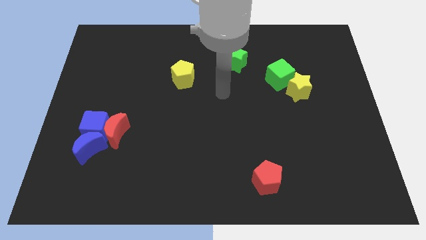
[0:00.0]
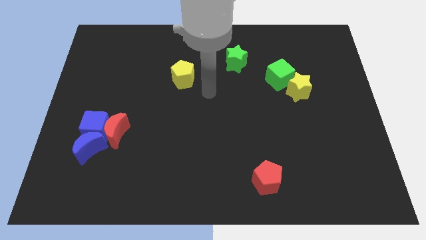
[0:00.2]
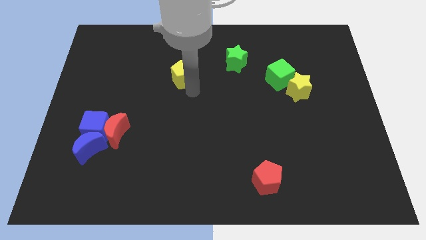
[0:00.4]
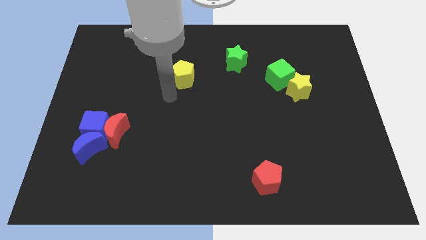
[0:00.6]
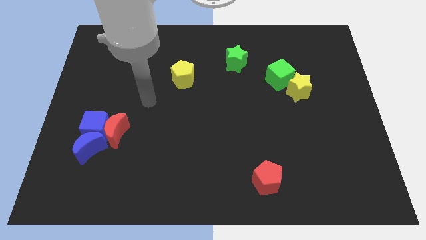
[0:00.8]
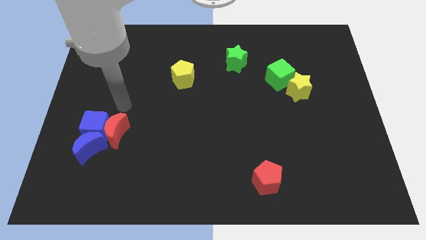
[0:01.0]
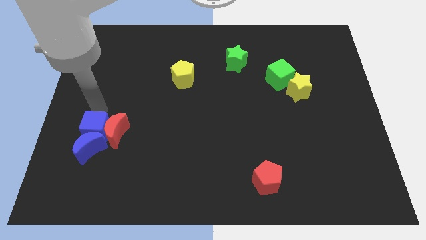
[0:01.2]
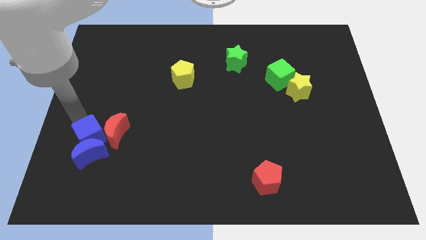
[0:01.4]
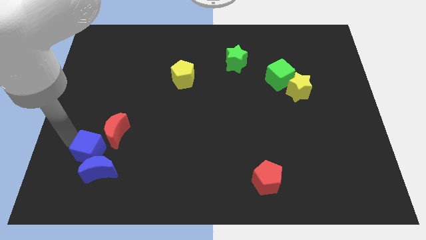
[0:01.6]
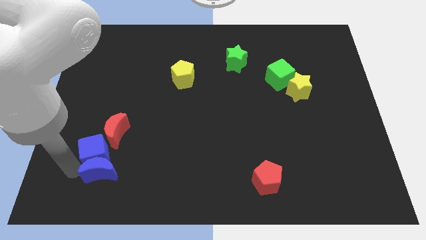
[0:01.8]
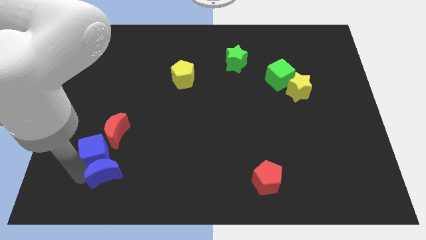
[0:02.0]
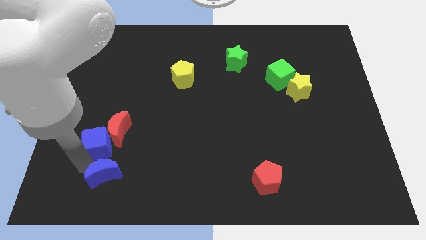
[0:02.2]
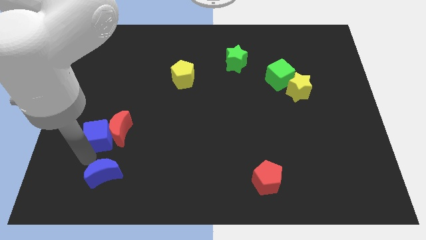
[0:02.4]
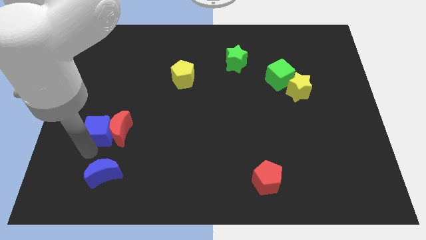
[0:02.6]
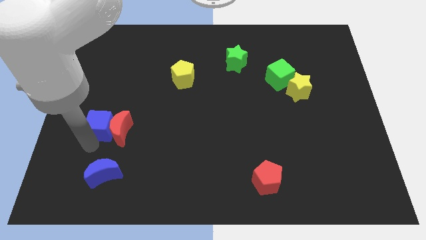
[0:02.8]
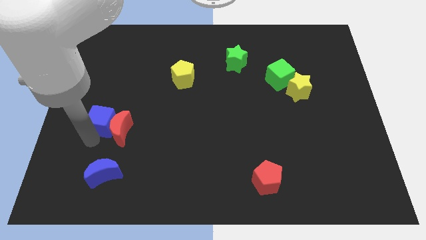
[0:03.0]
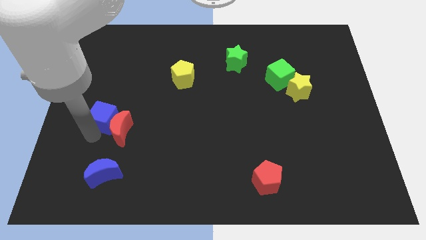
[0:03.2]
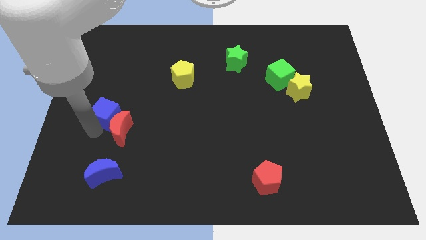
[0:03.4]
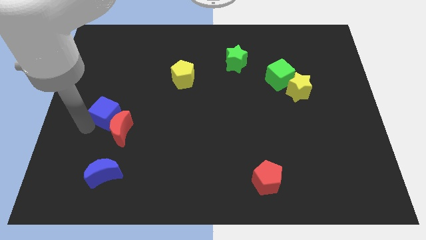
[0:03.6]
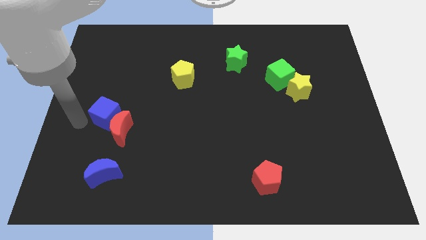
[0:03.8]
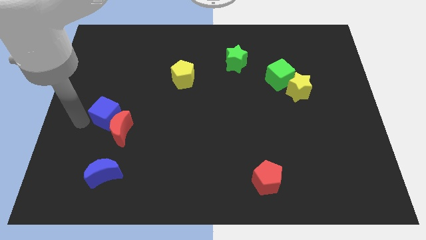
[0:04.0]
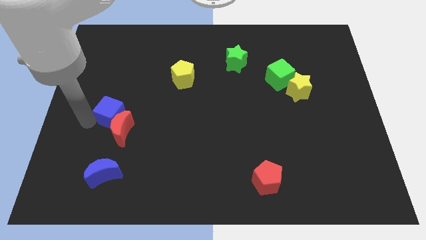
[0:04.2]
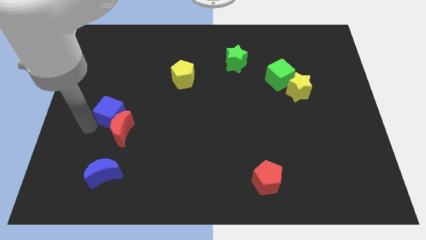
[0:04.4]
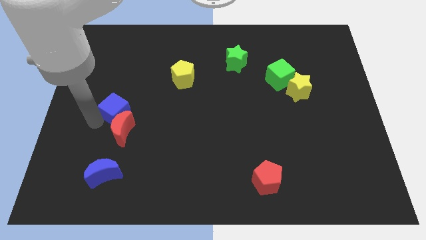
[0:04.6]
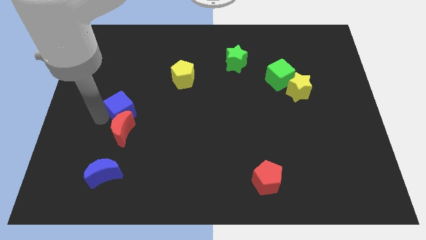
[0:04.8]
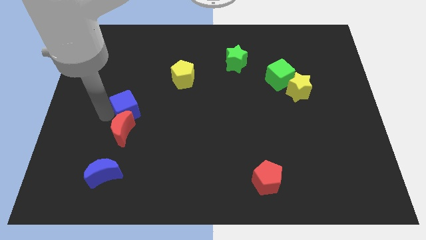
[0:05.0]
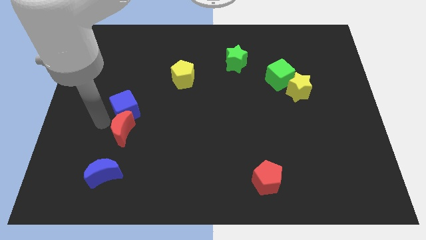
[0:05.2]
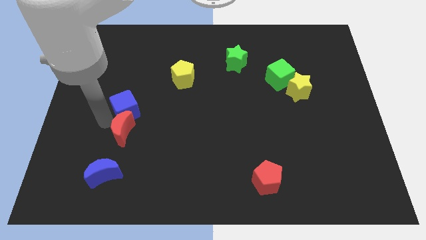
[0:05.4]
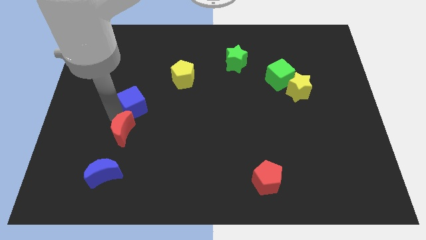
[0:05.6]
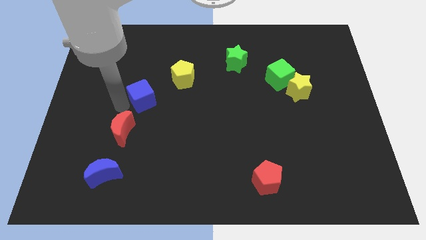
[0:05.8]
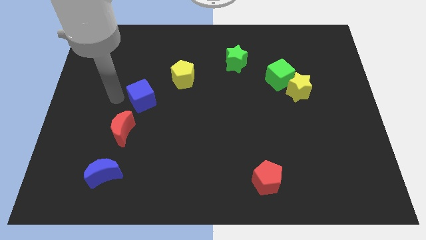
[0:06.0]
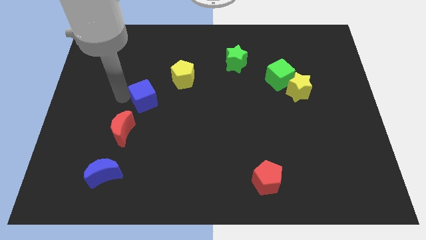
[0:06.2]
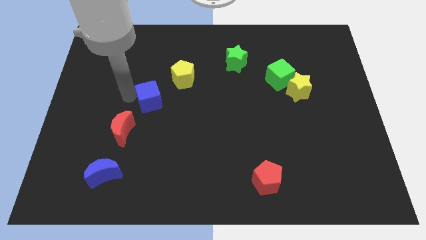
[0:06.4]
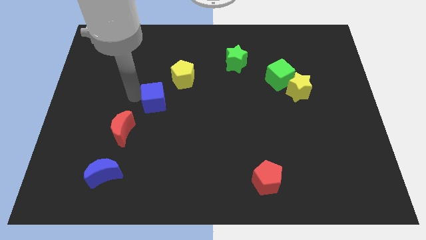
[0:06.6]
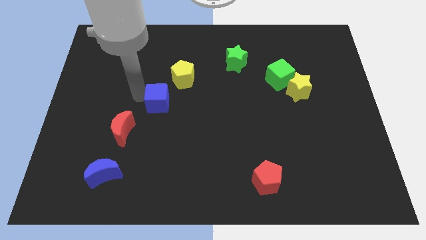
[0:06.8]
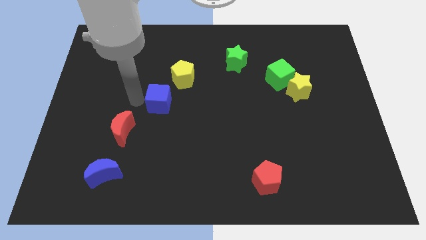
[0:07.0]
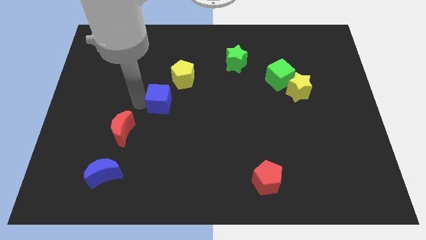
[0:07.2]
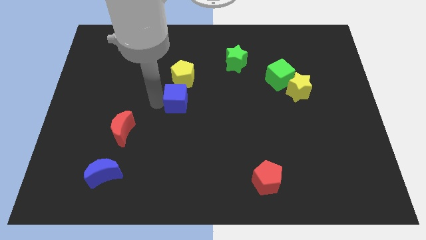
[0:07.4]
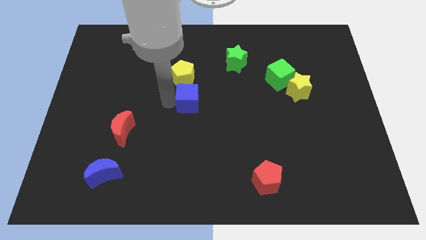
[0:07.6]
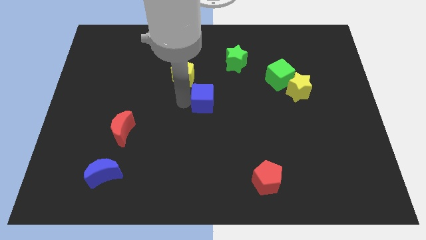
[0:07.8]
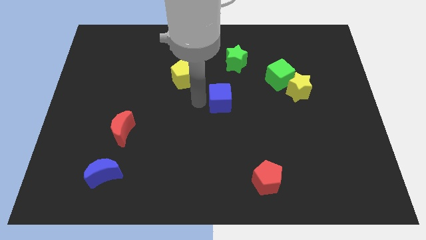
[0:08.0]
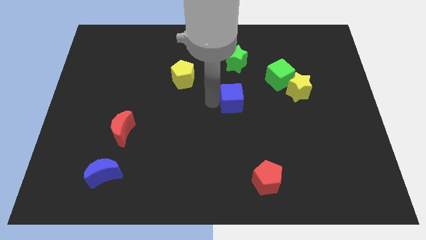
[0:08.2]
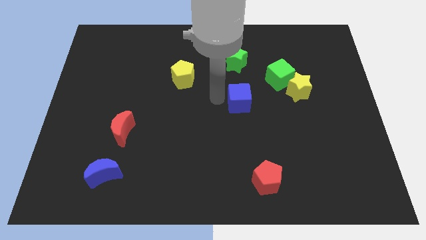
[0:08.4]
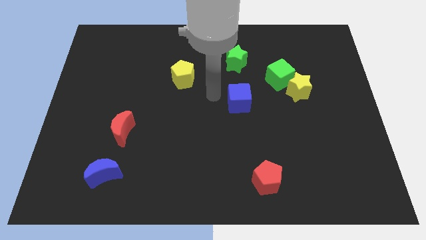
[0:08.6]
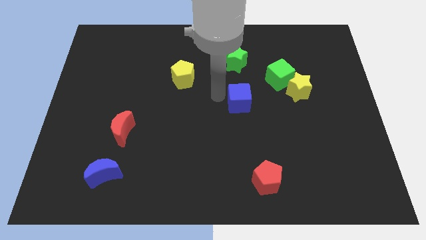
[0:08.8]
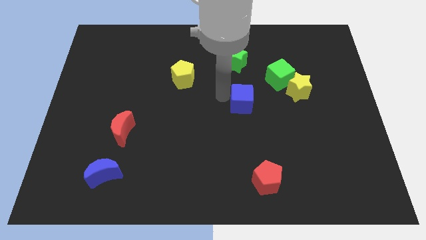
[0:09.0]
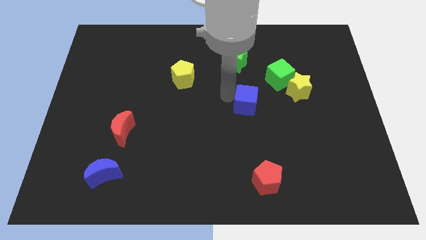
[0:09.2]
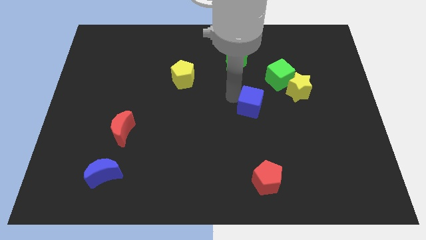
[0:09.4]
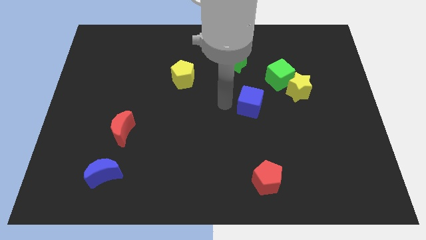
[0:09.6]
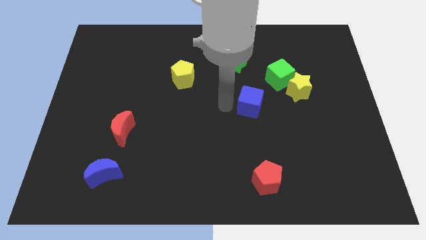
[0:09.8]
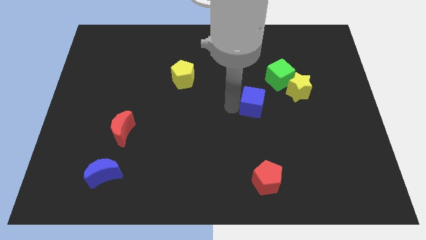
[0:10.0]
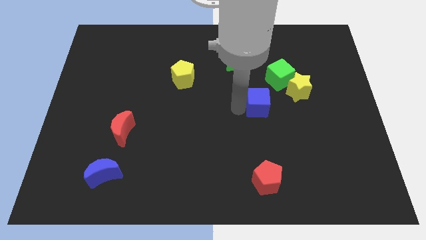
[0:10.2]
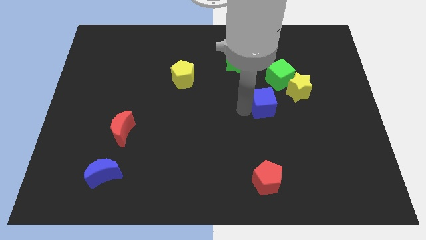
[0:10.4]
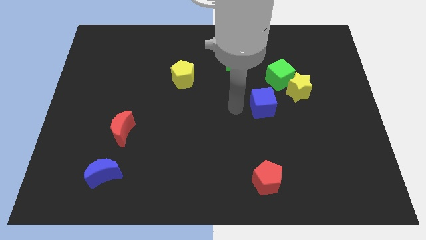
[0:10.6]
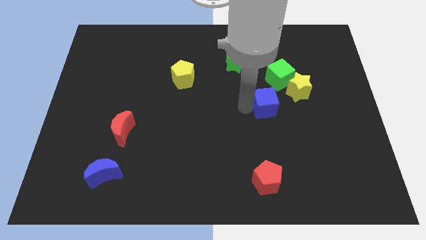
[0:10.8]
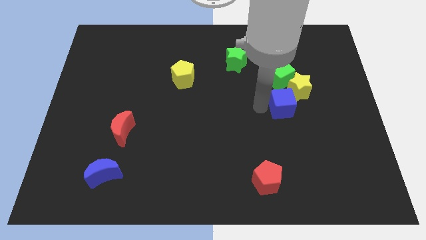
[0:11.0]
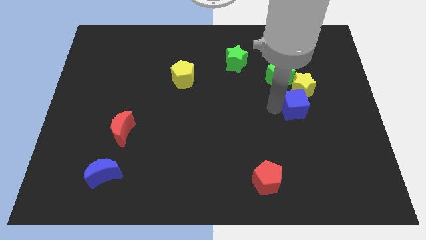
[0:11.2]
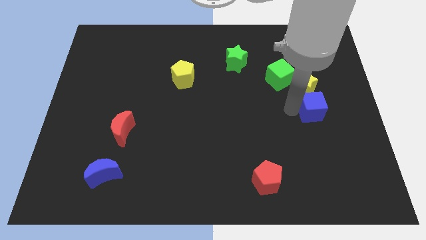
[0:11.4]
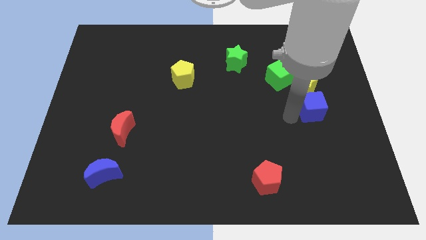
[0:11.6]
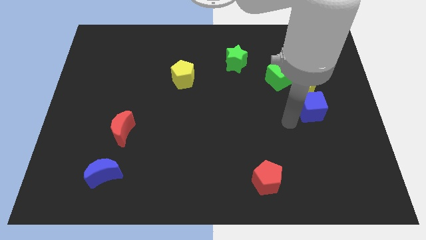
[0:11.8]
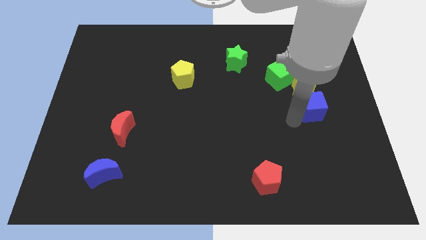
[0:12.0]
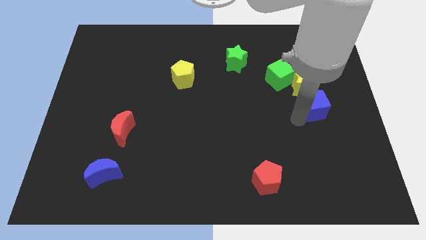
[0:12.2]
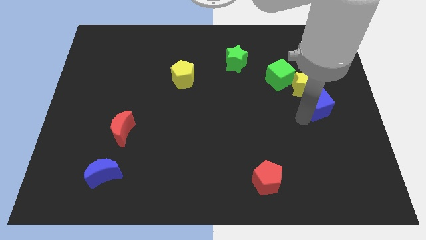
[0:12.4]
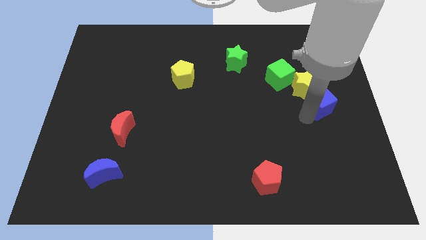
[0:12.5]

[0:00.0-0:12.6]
move the blue cube to the right side of the board
